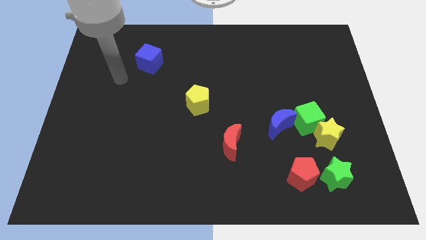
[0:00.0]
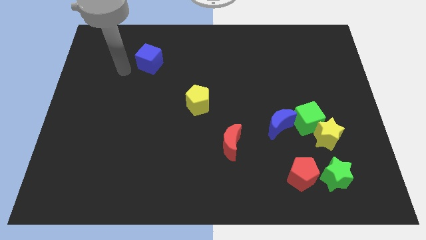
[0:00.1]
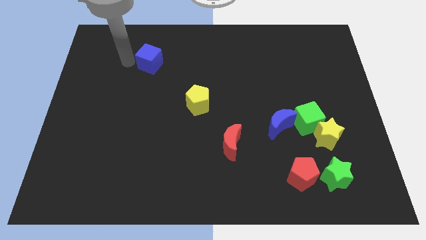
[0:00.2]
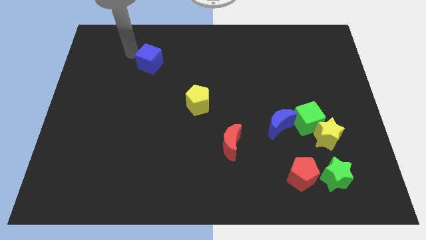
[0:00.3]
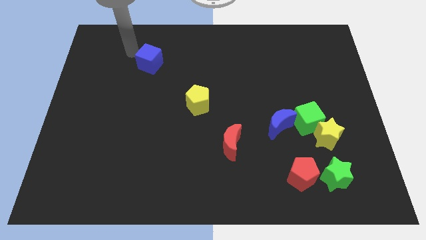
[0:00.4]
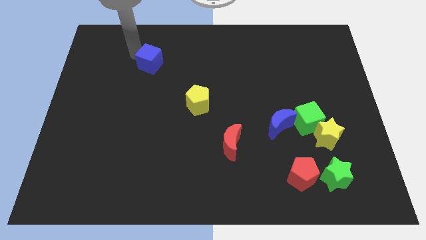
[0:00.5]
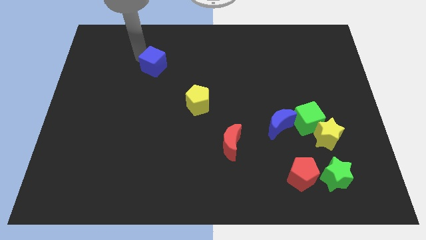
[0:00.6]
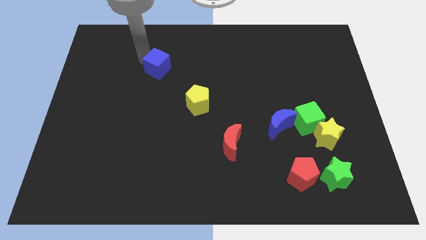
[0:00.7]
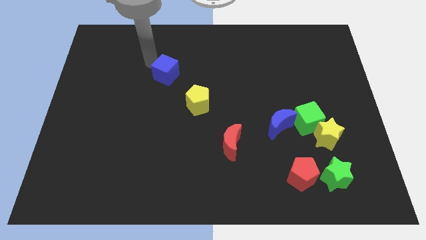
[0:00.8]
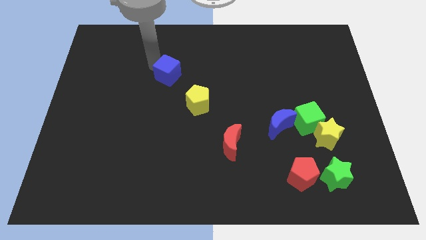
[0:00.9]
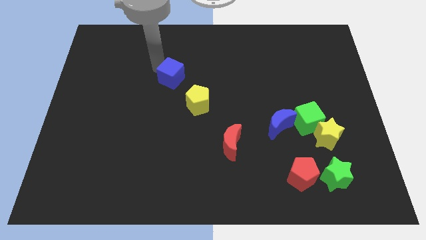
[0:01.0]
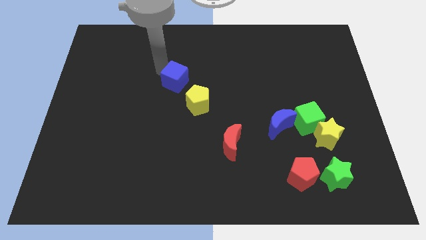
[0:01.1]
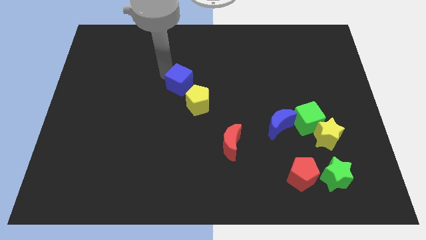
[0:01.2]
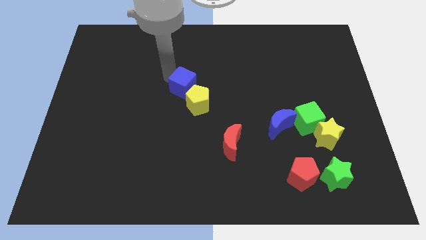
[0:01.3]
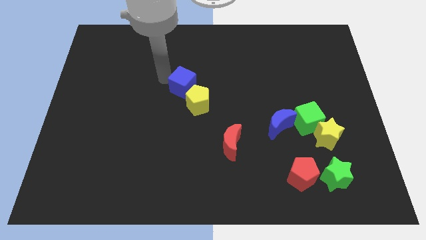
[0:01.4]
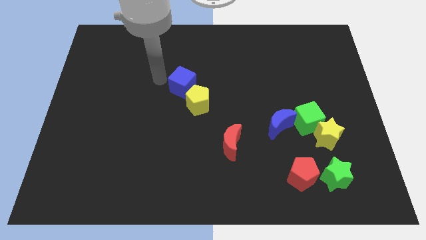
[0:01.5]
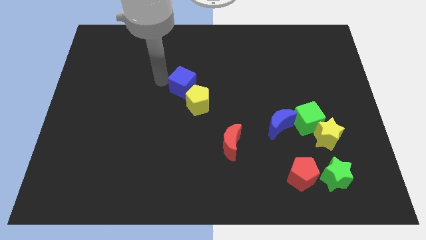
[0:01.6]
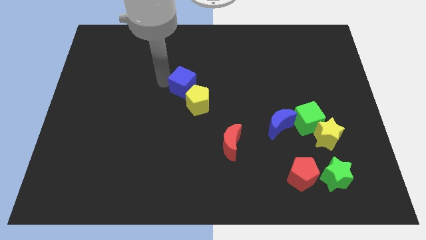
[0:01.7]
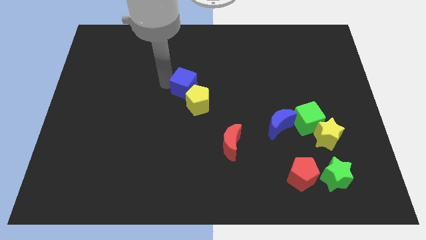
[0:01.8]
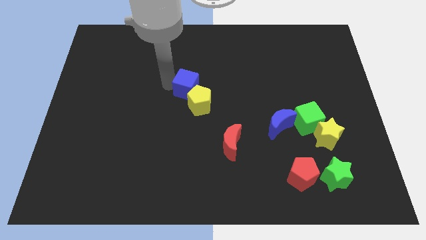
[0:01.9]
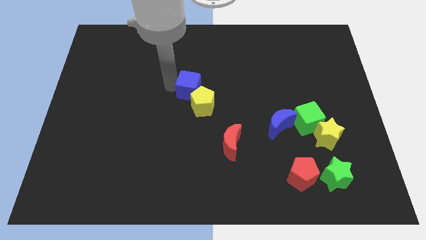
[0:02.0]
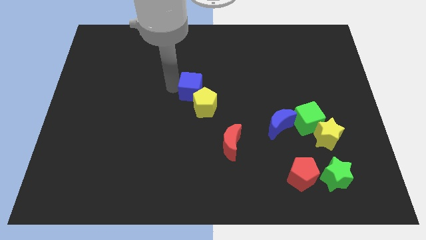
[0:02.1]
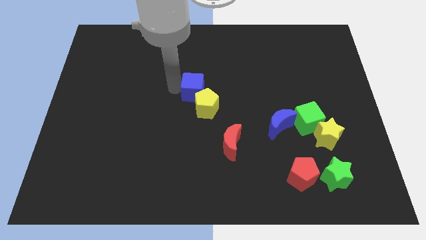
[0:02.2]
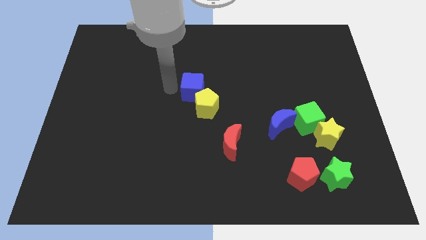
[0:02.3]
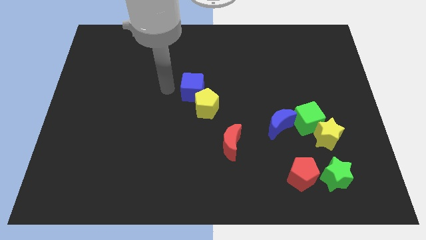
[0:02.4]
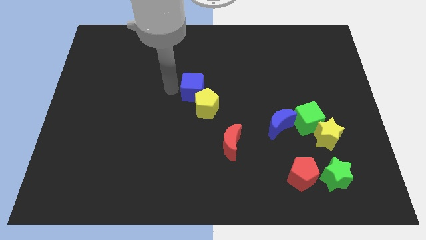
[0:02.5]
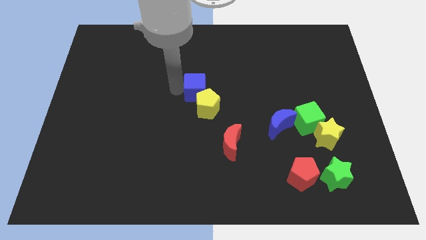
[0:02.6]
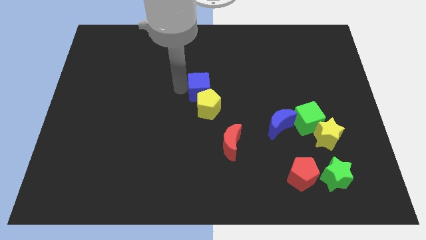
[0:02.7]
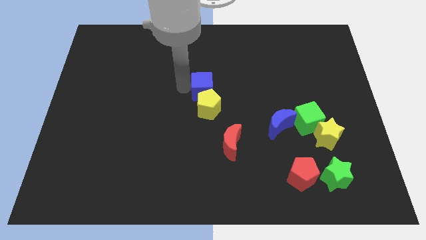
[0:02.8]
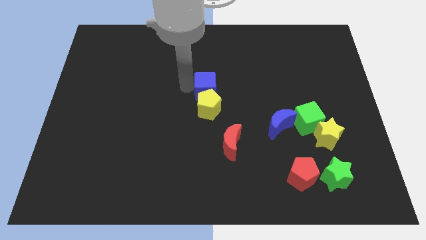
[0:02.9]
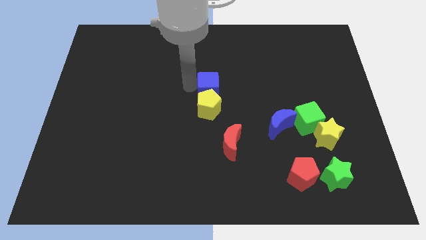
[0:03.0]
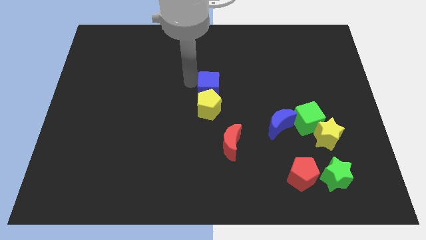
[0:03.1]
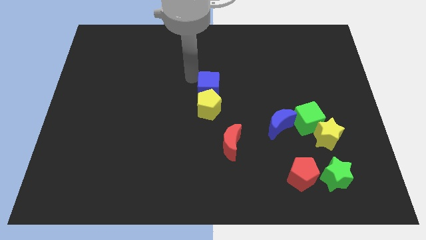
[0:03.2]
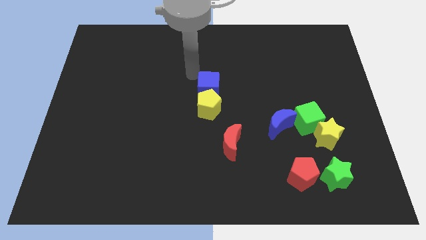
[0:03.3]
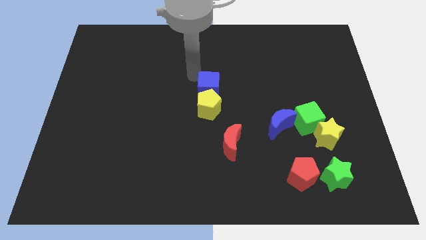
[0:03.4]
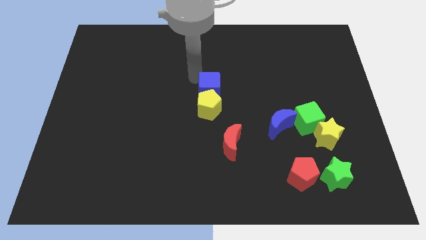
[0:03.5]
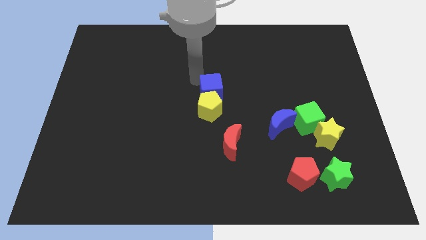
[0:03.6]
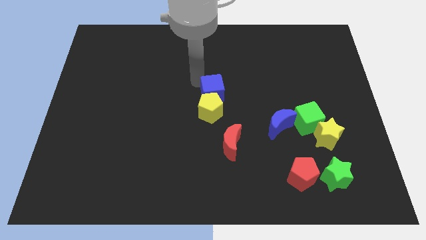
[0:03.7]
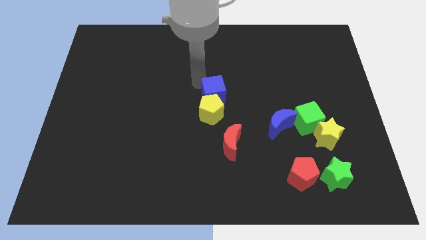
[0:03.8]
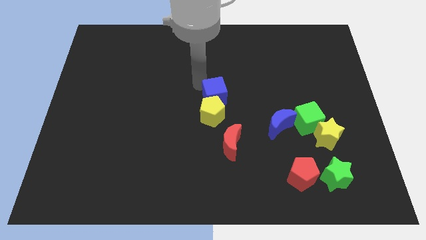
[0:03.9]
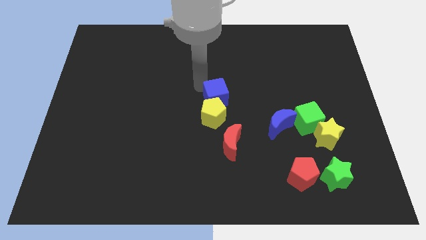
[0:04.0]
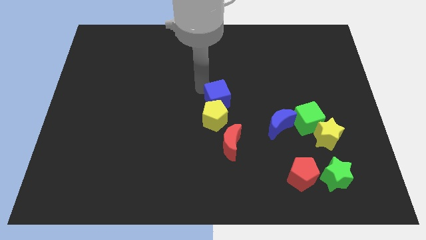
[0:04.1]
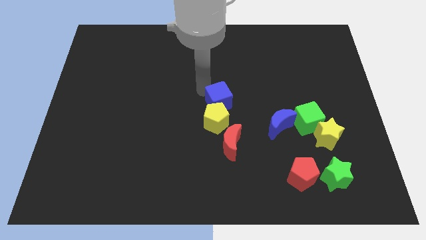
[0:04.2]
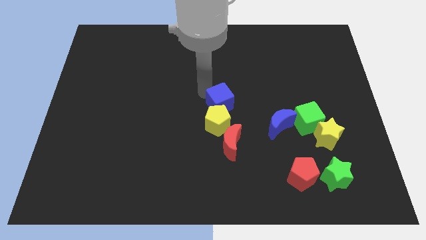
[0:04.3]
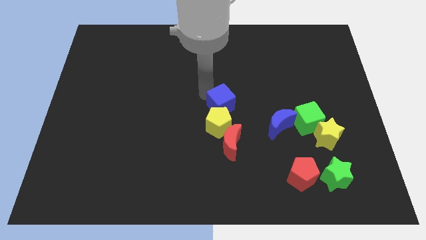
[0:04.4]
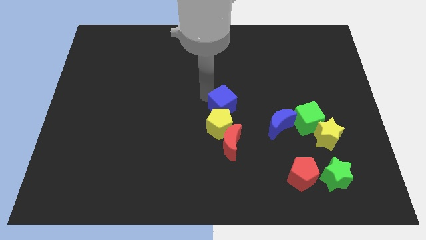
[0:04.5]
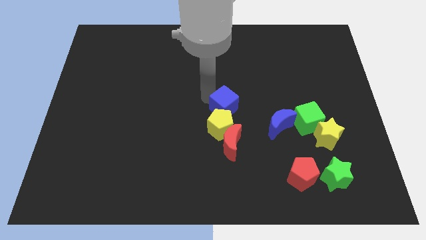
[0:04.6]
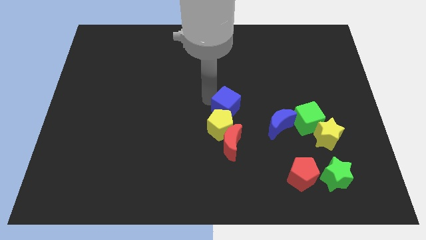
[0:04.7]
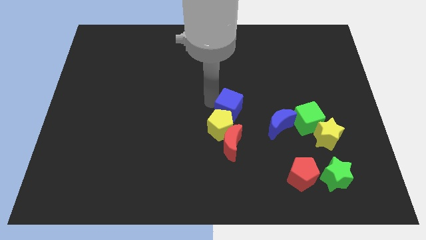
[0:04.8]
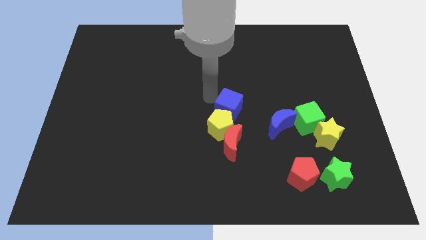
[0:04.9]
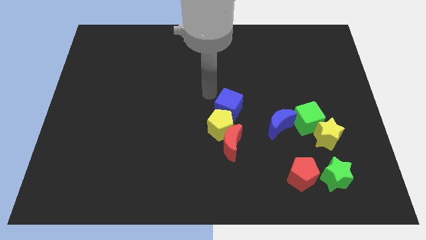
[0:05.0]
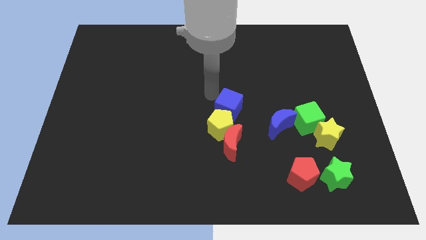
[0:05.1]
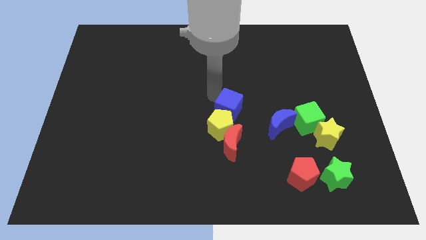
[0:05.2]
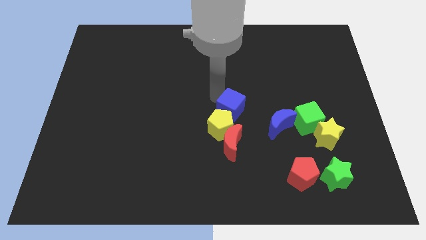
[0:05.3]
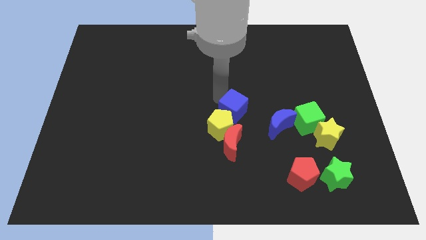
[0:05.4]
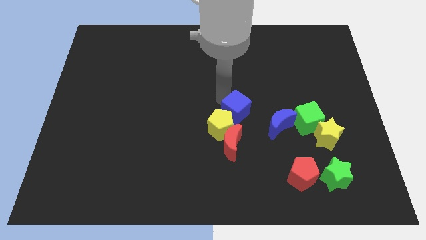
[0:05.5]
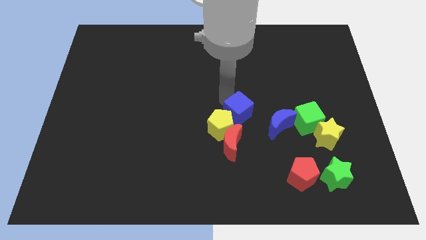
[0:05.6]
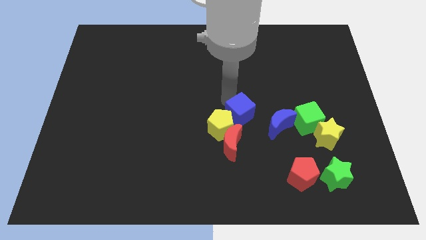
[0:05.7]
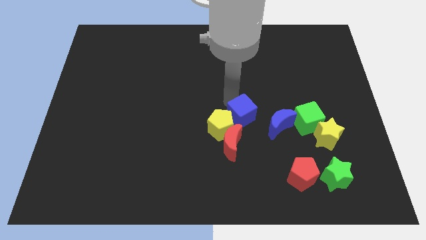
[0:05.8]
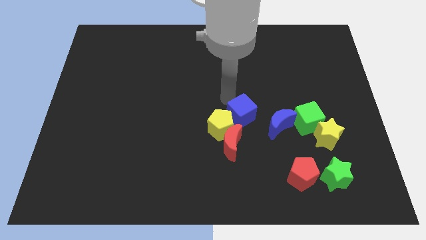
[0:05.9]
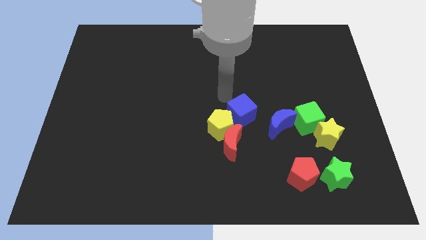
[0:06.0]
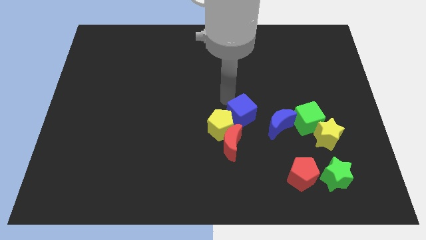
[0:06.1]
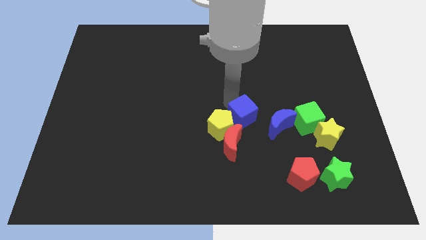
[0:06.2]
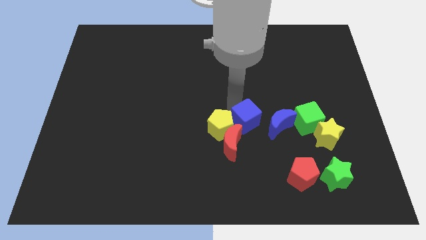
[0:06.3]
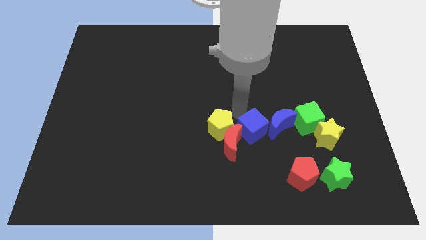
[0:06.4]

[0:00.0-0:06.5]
push the blue cube right of the red moon

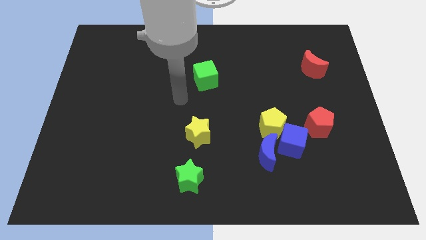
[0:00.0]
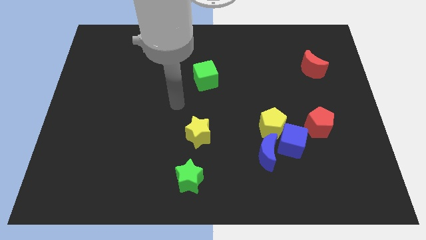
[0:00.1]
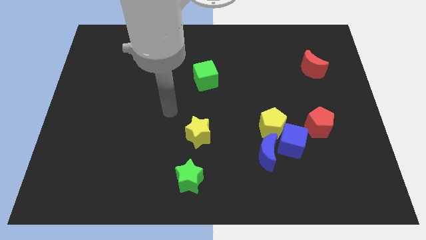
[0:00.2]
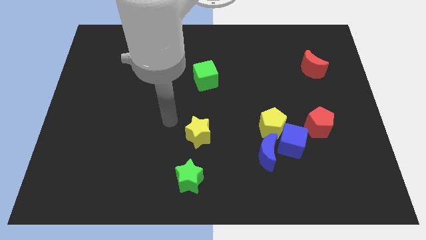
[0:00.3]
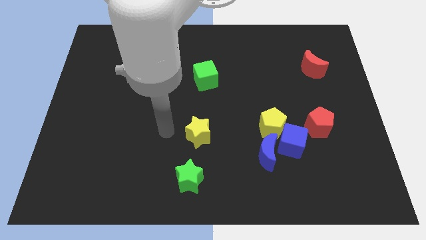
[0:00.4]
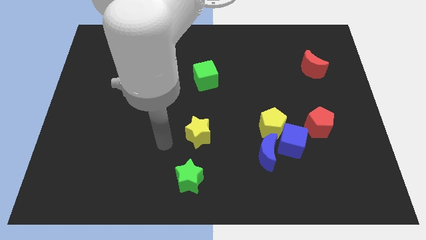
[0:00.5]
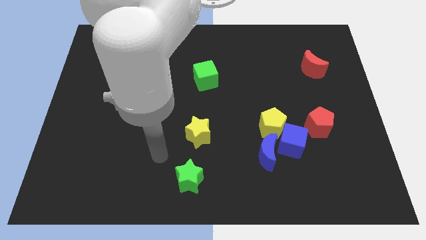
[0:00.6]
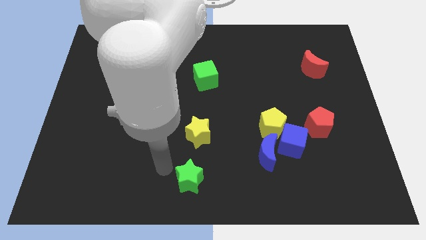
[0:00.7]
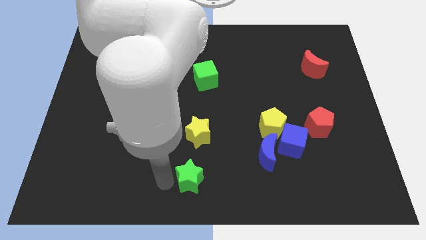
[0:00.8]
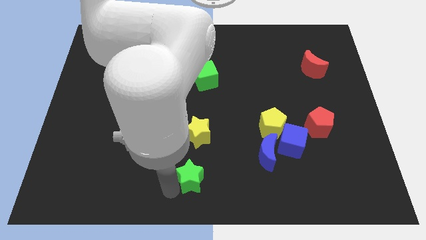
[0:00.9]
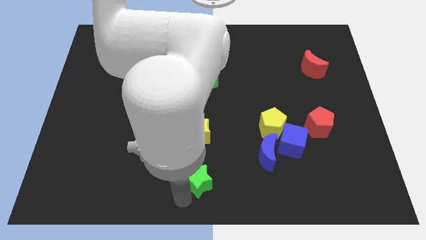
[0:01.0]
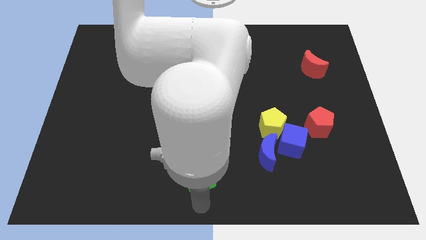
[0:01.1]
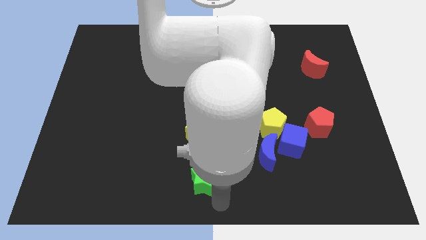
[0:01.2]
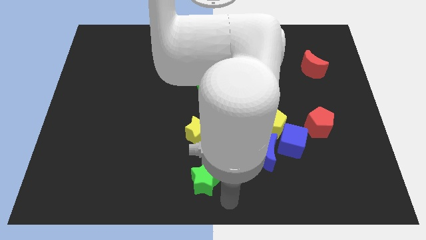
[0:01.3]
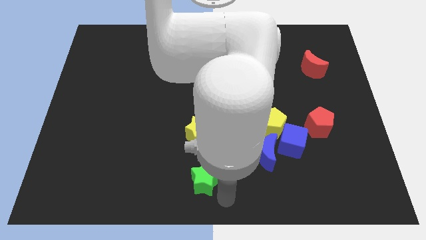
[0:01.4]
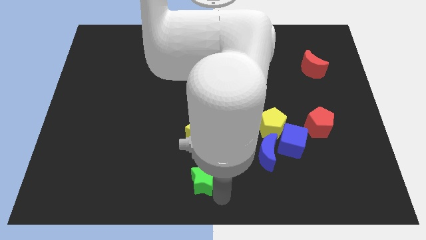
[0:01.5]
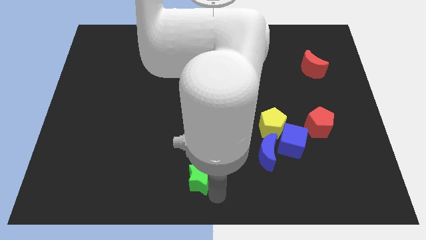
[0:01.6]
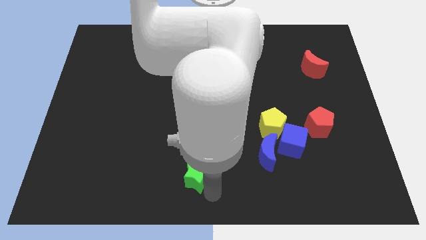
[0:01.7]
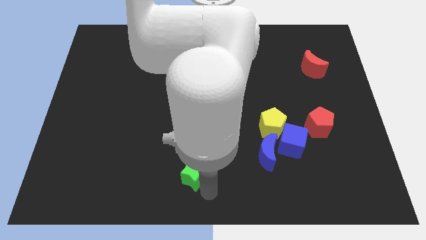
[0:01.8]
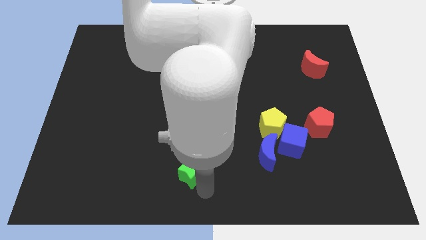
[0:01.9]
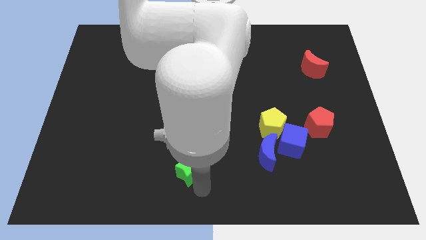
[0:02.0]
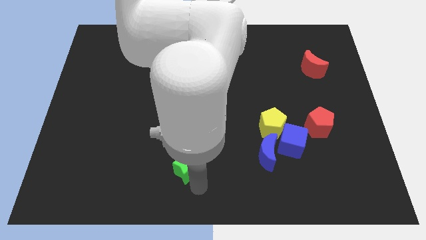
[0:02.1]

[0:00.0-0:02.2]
slide the green star to the bottom left of the yellow star

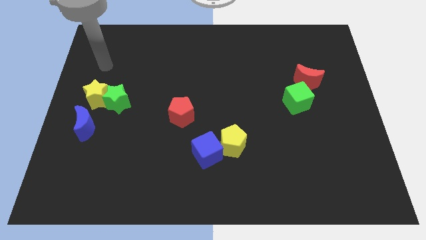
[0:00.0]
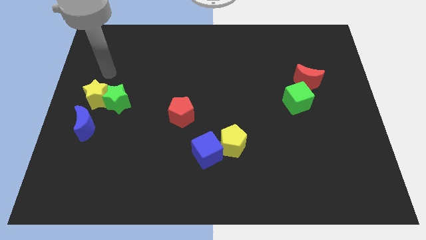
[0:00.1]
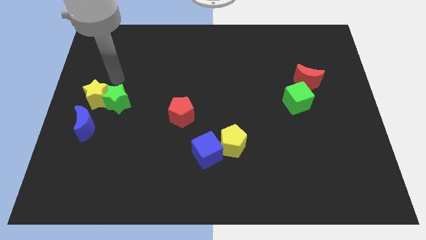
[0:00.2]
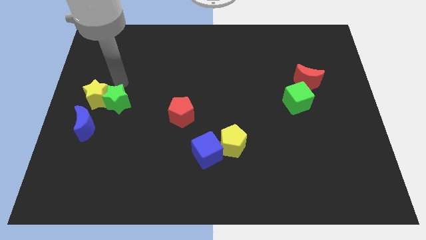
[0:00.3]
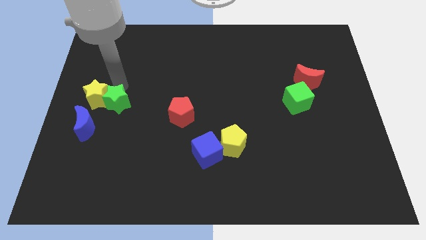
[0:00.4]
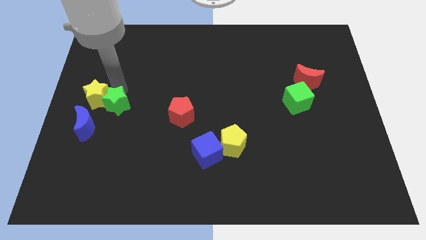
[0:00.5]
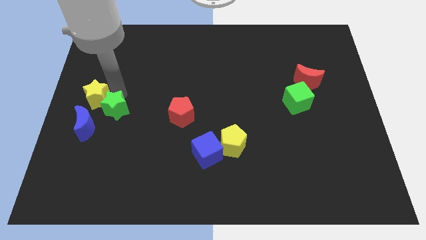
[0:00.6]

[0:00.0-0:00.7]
push the green star to the bottom of the yellow star
